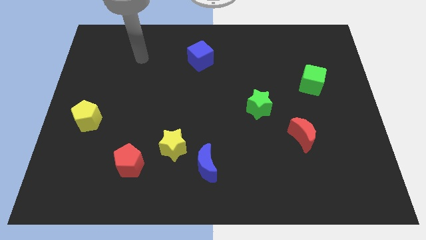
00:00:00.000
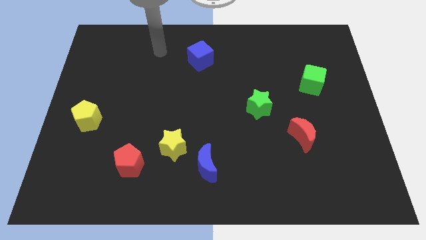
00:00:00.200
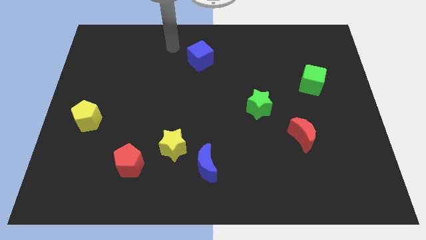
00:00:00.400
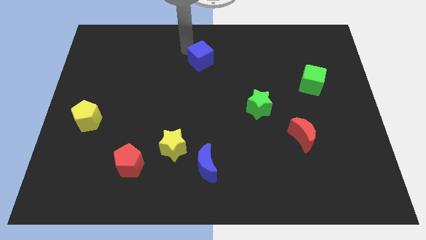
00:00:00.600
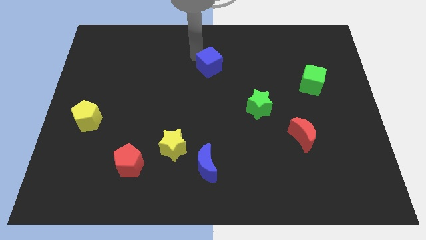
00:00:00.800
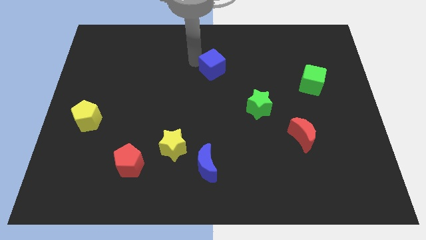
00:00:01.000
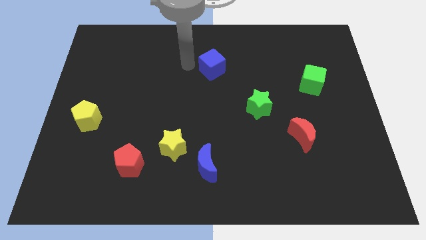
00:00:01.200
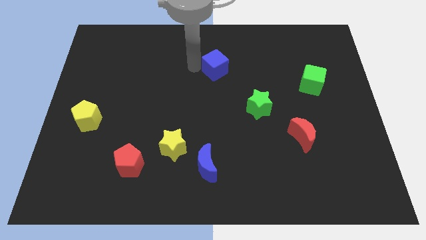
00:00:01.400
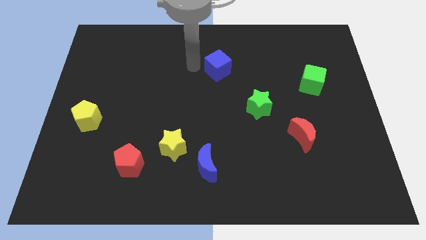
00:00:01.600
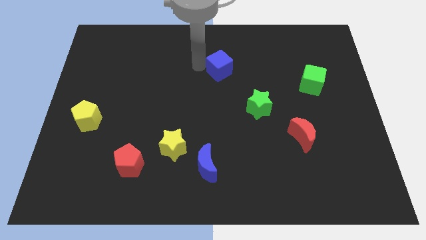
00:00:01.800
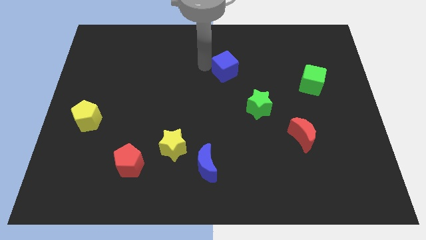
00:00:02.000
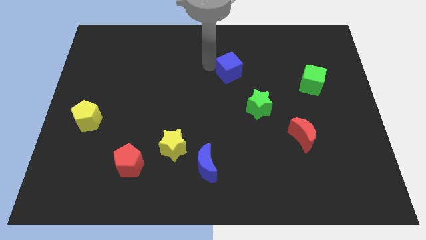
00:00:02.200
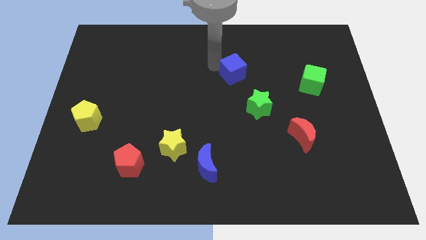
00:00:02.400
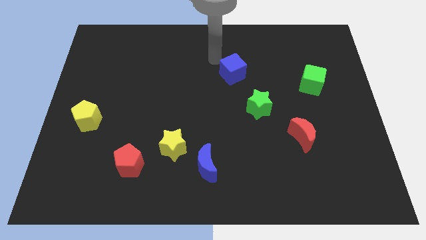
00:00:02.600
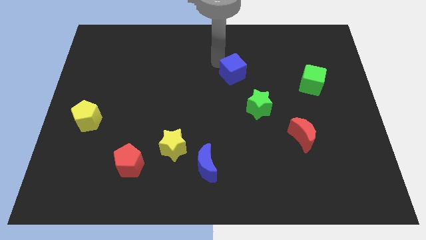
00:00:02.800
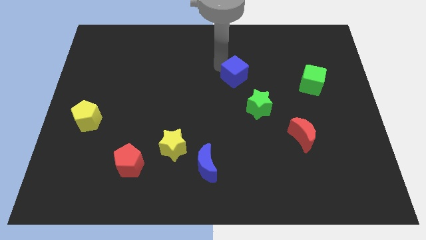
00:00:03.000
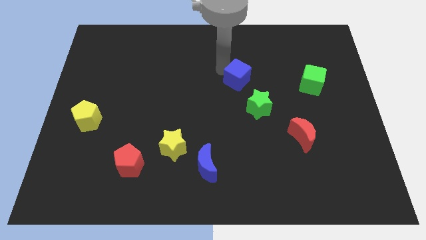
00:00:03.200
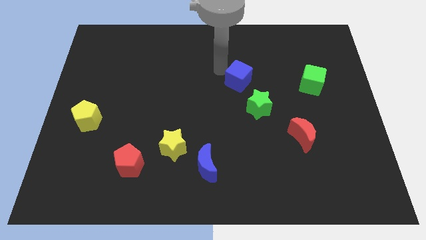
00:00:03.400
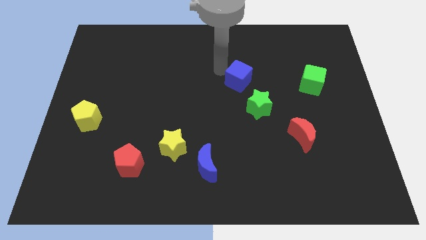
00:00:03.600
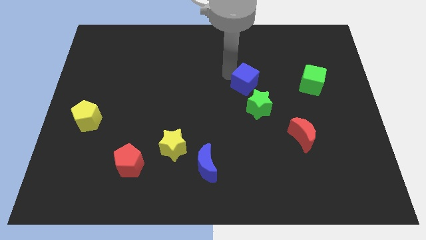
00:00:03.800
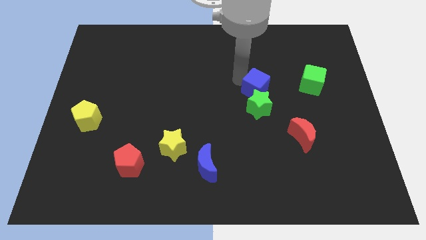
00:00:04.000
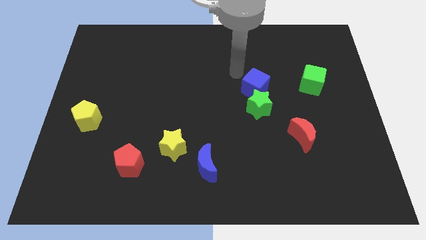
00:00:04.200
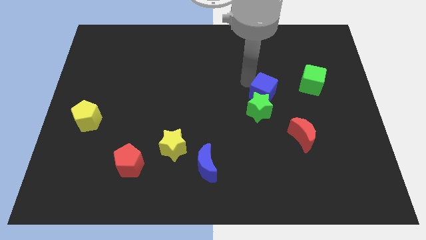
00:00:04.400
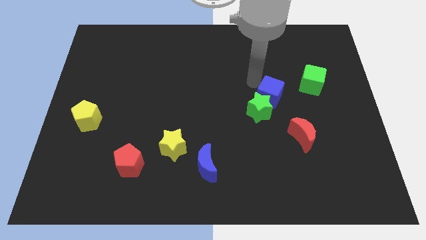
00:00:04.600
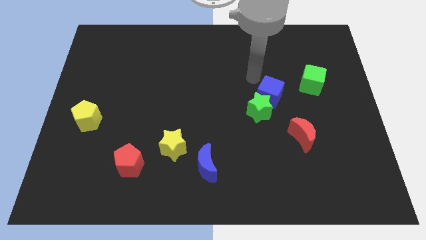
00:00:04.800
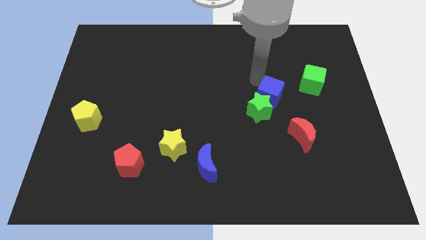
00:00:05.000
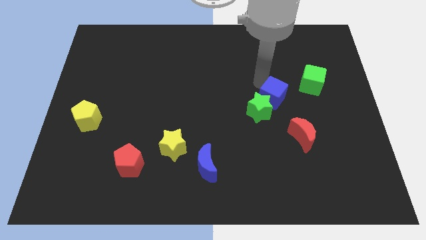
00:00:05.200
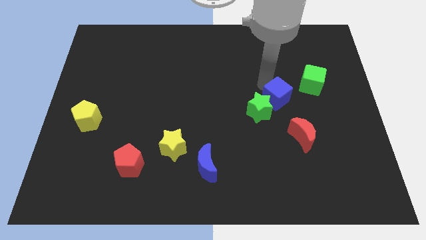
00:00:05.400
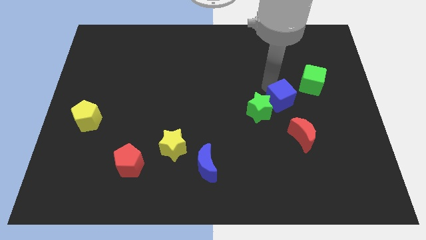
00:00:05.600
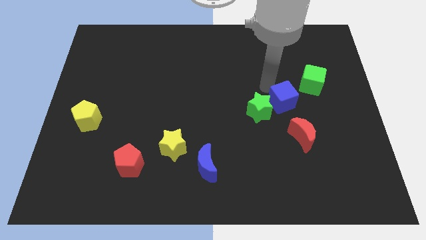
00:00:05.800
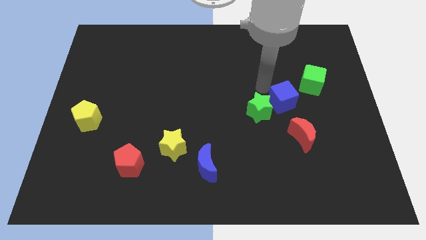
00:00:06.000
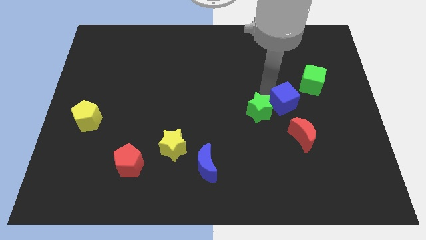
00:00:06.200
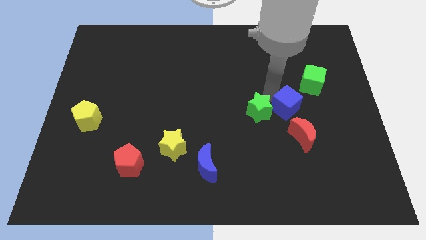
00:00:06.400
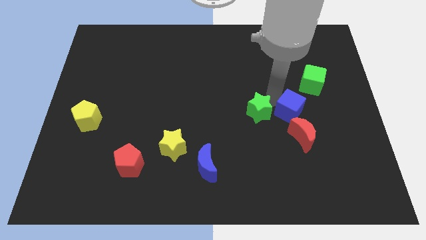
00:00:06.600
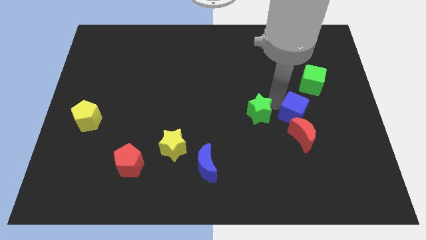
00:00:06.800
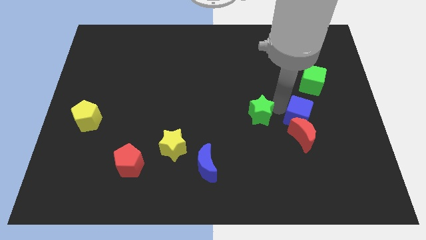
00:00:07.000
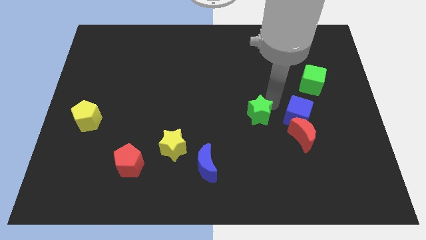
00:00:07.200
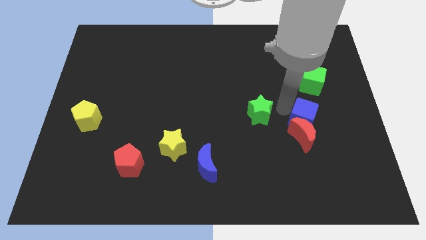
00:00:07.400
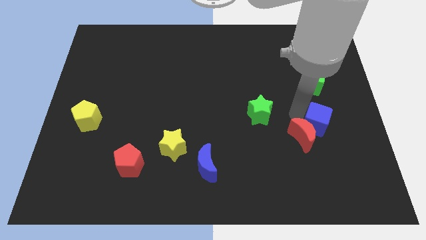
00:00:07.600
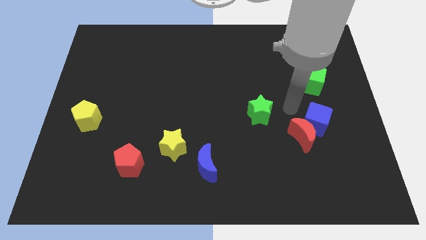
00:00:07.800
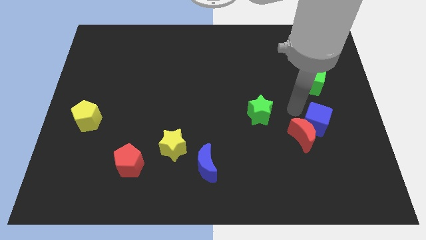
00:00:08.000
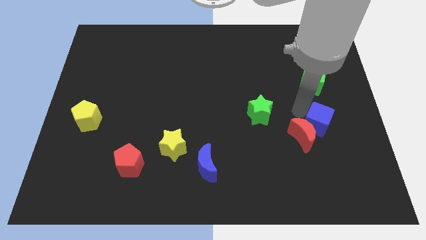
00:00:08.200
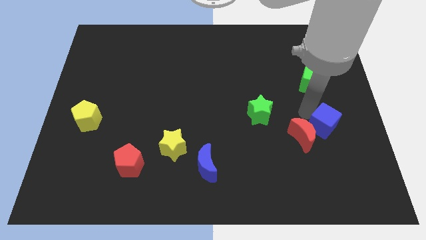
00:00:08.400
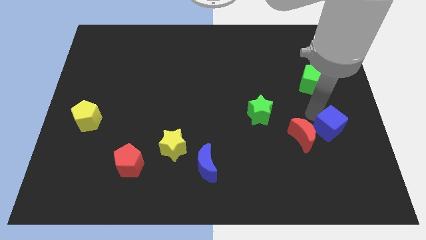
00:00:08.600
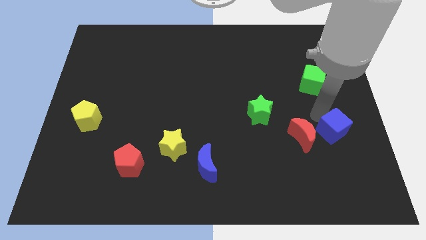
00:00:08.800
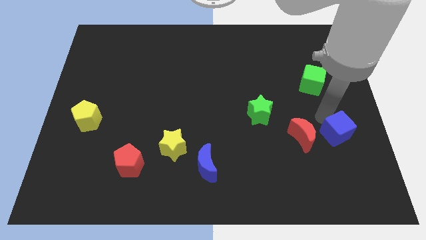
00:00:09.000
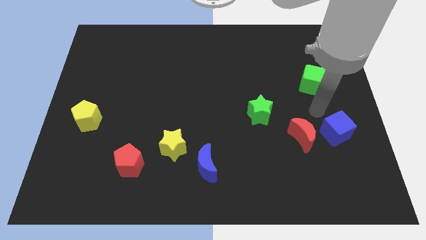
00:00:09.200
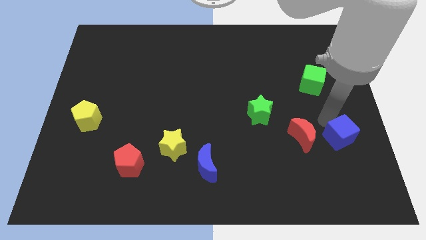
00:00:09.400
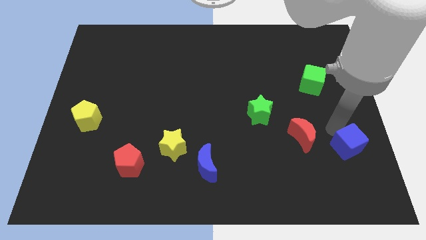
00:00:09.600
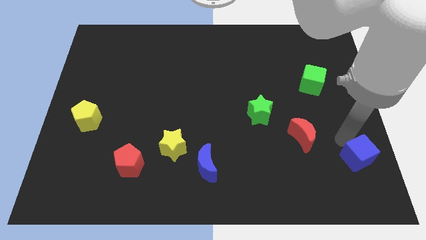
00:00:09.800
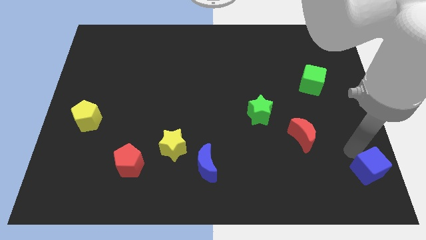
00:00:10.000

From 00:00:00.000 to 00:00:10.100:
push the blue cube to the bottom right corner

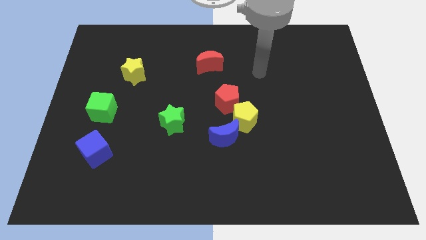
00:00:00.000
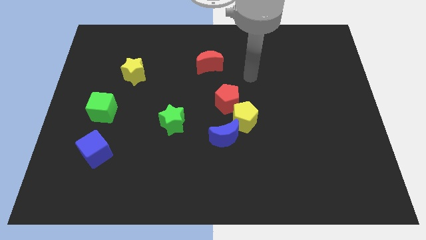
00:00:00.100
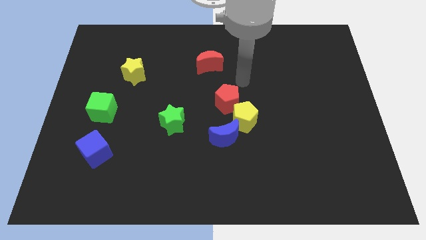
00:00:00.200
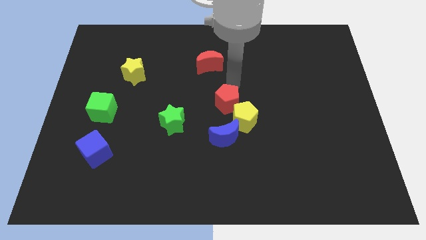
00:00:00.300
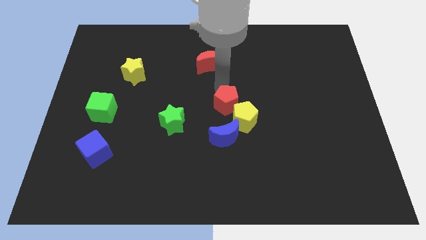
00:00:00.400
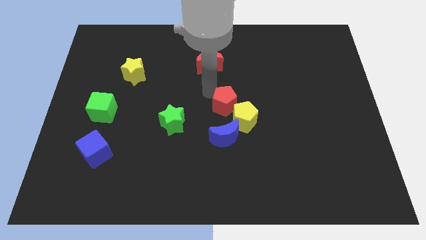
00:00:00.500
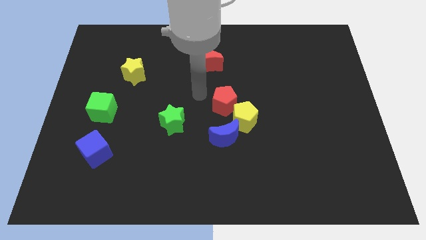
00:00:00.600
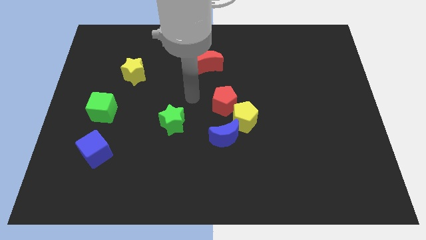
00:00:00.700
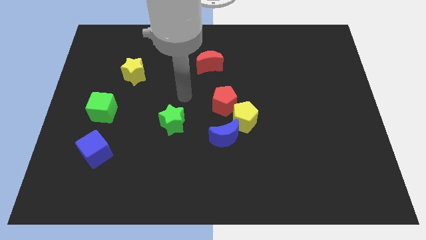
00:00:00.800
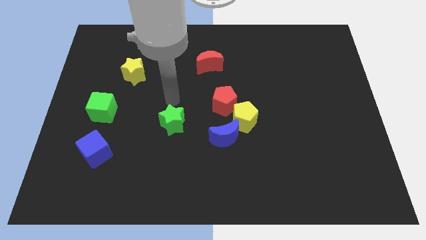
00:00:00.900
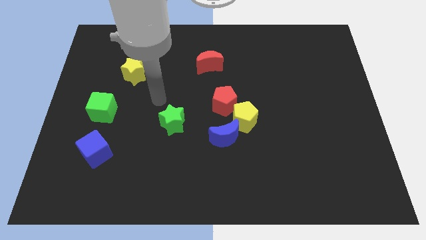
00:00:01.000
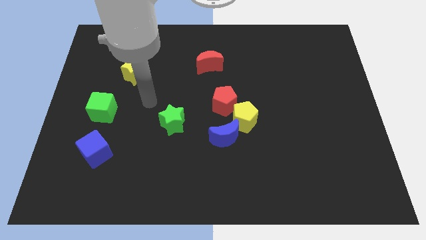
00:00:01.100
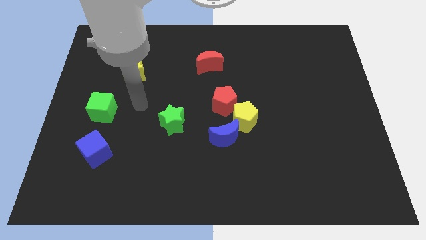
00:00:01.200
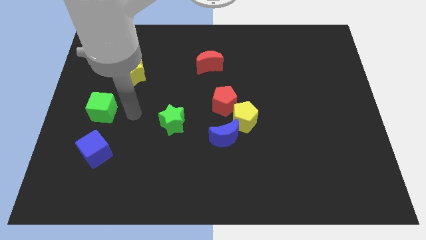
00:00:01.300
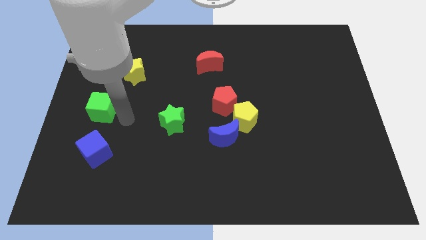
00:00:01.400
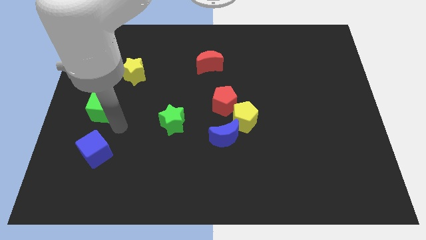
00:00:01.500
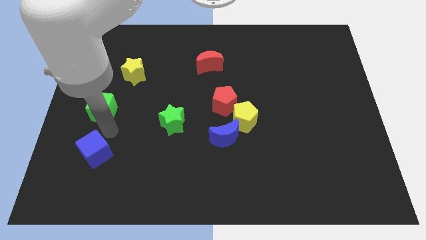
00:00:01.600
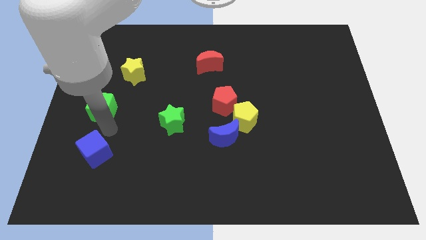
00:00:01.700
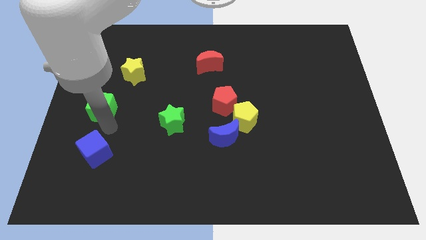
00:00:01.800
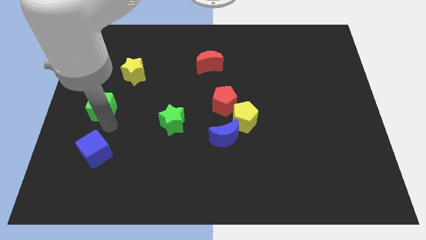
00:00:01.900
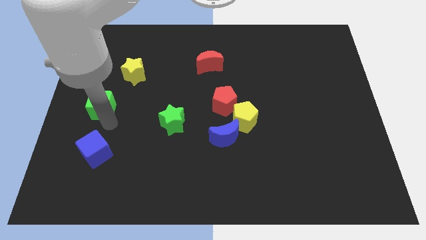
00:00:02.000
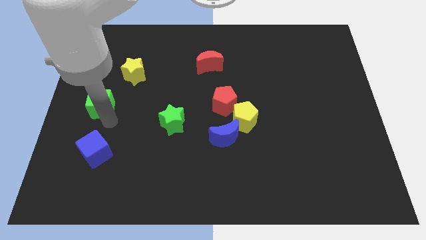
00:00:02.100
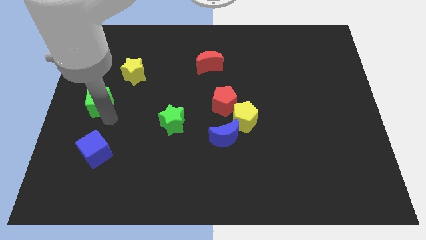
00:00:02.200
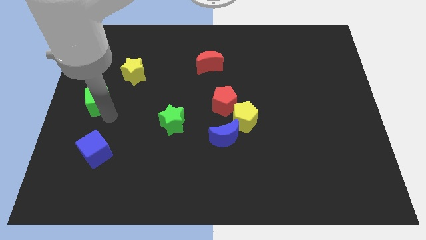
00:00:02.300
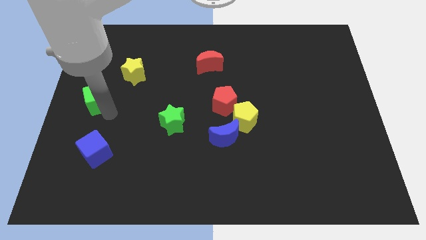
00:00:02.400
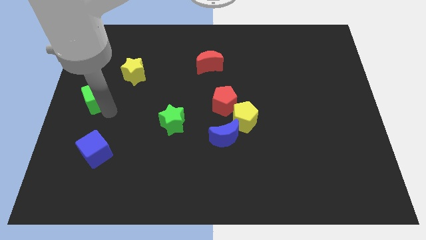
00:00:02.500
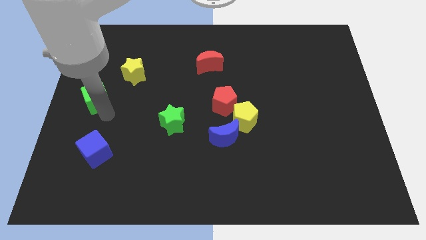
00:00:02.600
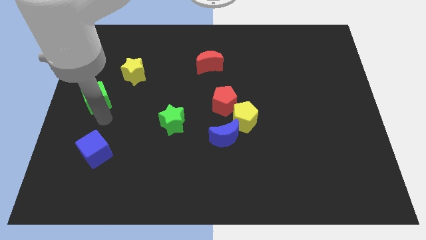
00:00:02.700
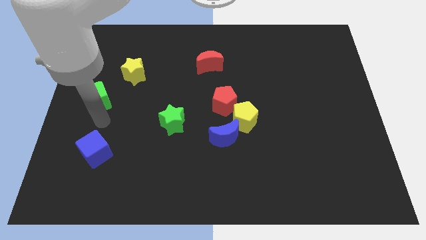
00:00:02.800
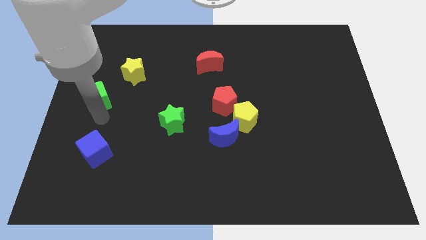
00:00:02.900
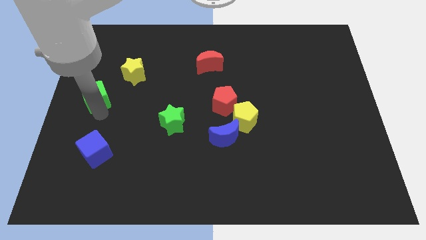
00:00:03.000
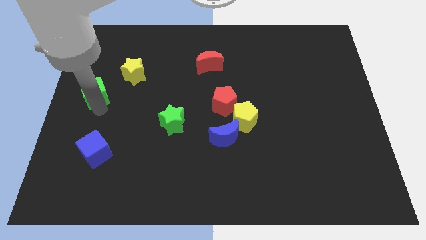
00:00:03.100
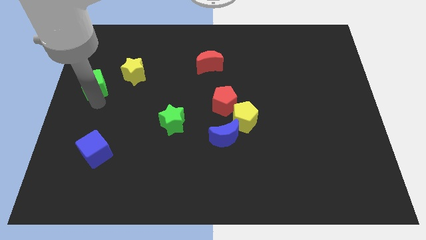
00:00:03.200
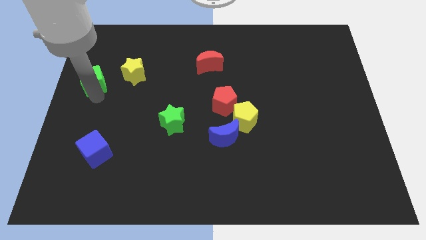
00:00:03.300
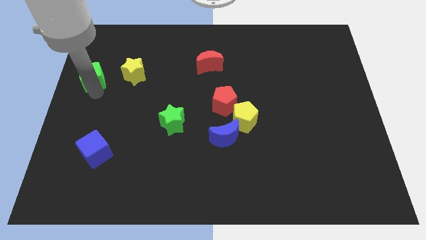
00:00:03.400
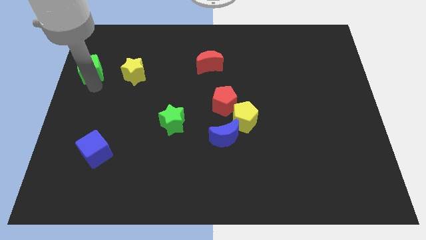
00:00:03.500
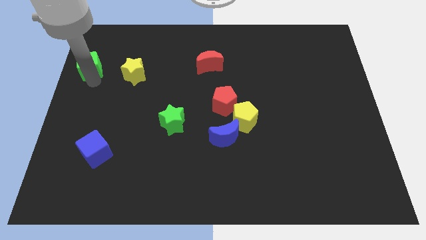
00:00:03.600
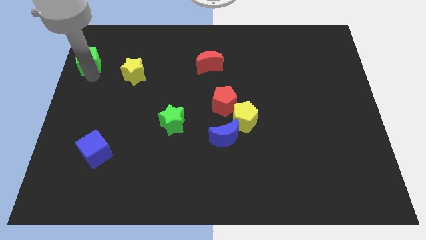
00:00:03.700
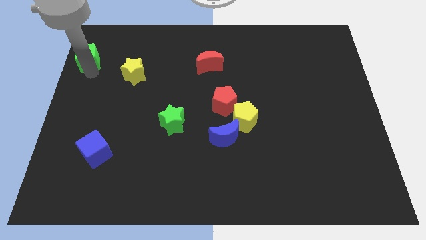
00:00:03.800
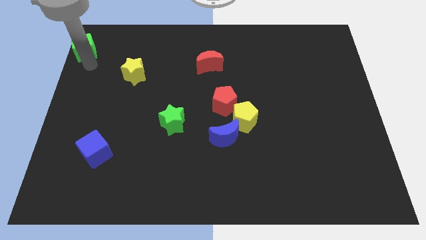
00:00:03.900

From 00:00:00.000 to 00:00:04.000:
put the green cube to the top left of the board
